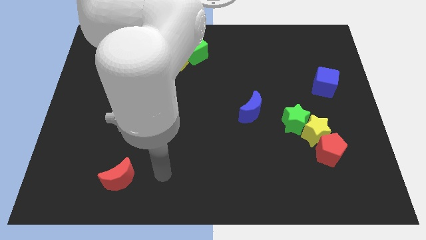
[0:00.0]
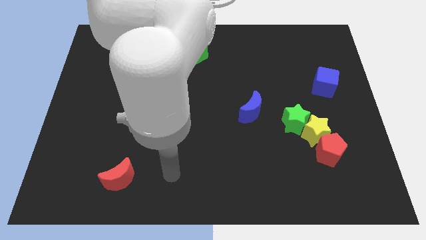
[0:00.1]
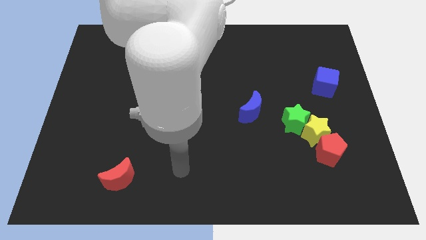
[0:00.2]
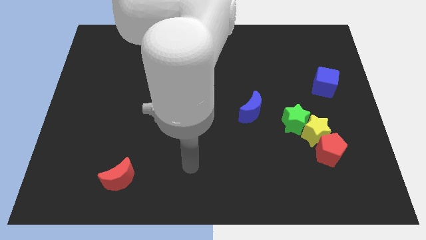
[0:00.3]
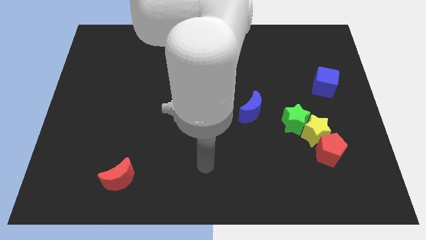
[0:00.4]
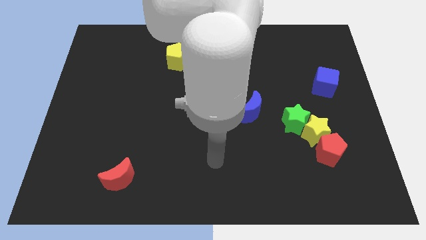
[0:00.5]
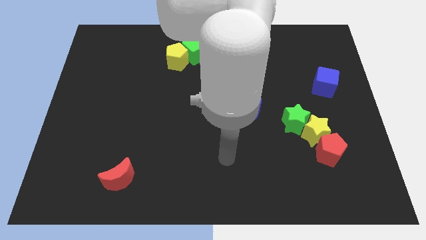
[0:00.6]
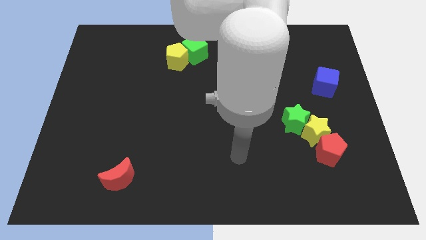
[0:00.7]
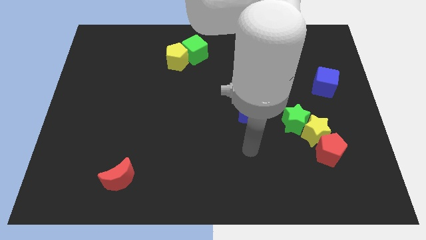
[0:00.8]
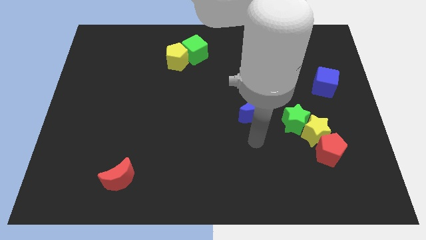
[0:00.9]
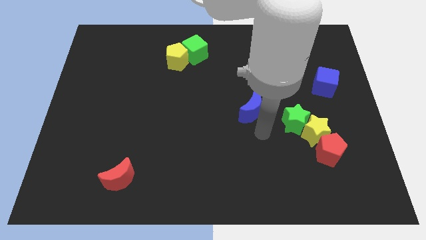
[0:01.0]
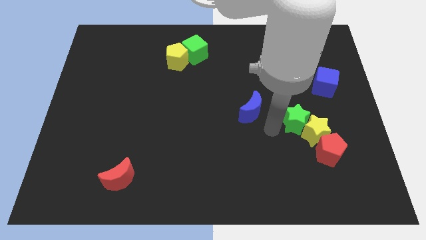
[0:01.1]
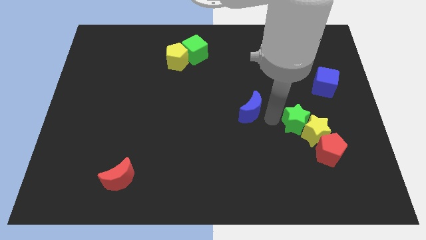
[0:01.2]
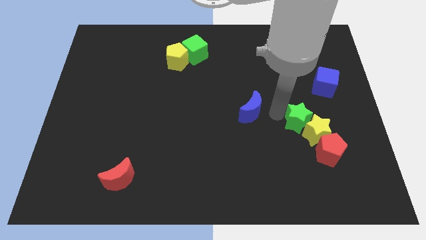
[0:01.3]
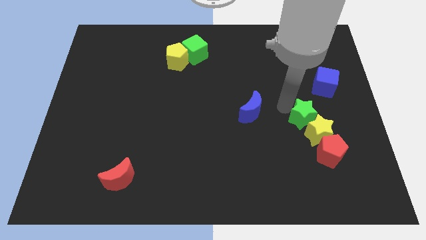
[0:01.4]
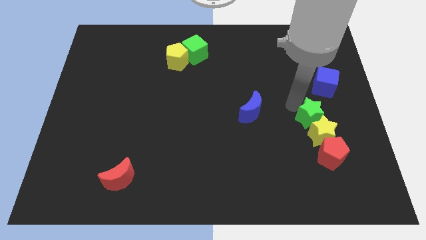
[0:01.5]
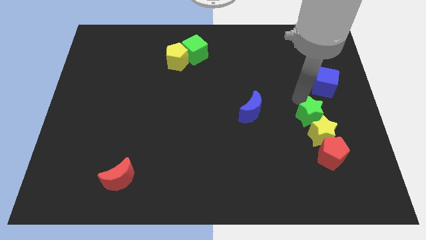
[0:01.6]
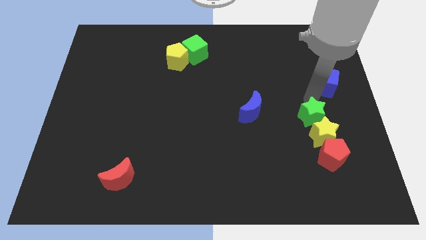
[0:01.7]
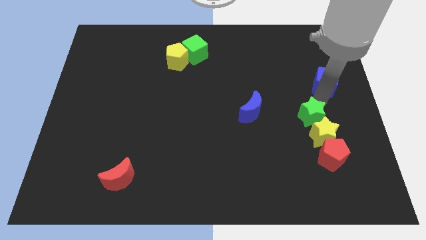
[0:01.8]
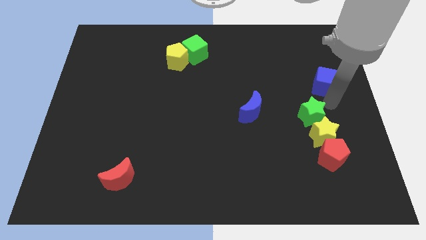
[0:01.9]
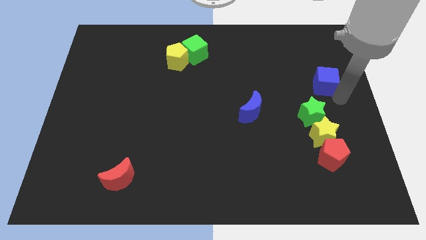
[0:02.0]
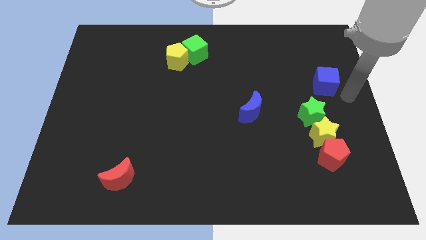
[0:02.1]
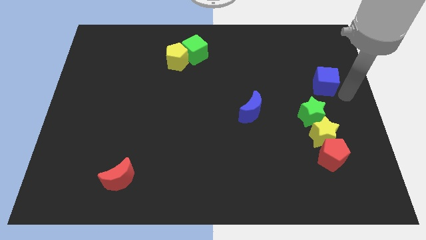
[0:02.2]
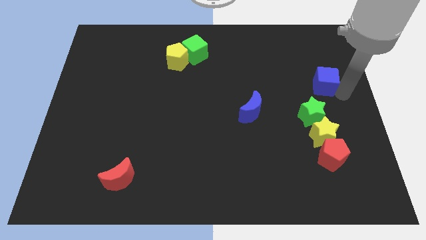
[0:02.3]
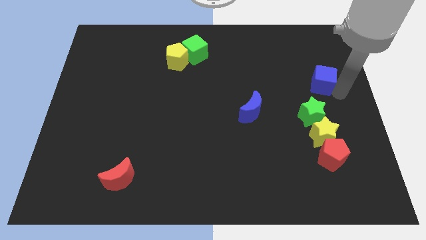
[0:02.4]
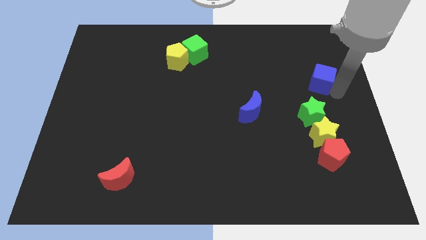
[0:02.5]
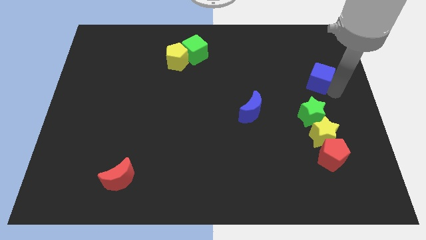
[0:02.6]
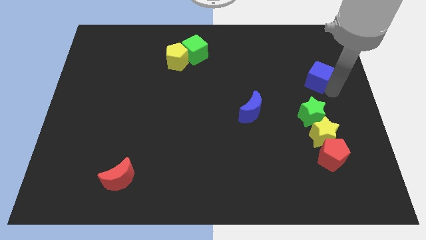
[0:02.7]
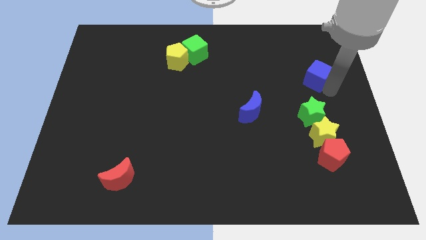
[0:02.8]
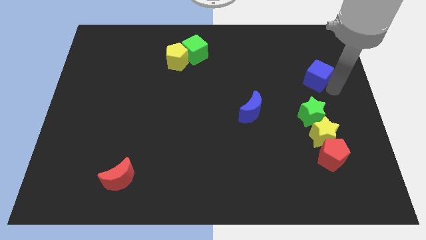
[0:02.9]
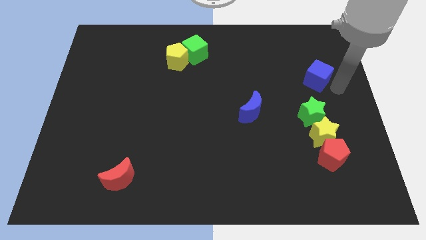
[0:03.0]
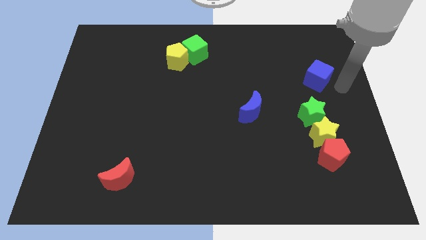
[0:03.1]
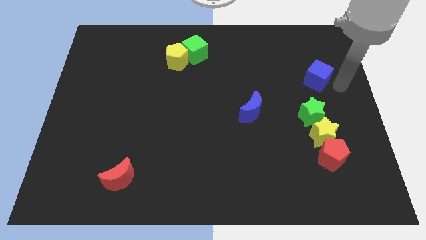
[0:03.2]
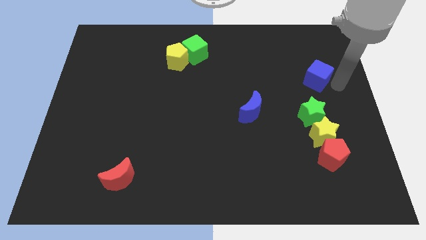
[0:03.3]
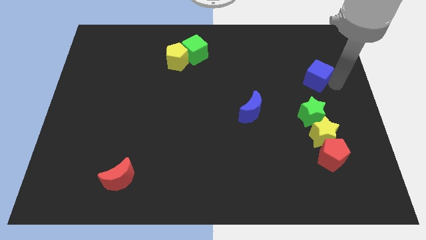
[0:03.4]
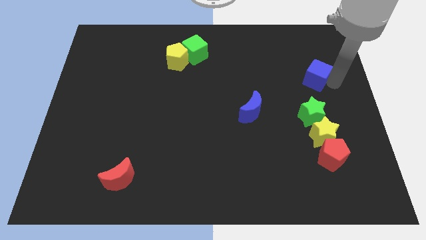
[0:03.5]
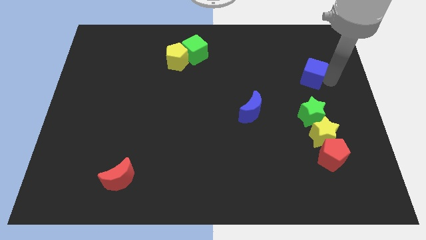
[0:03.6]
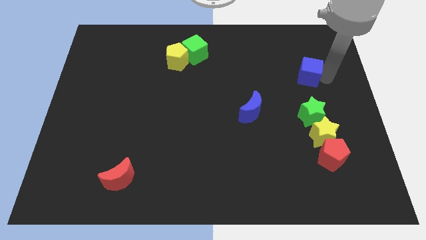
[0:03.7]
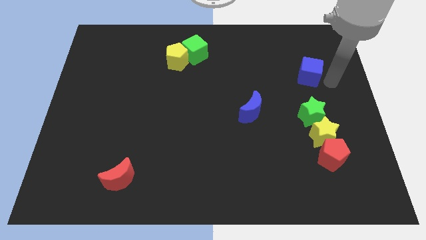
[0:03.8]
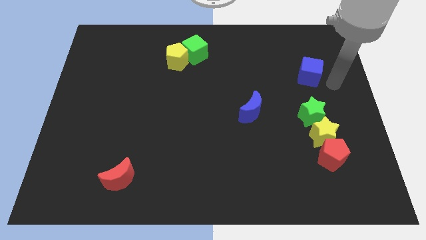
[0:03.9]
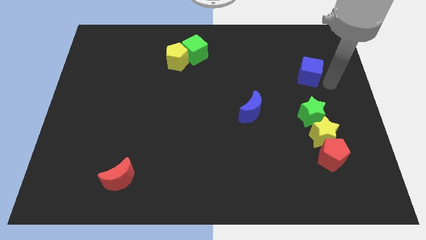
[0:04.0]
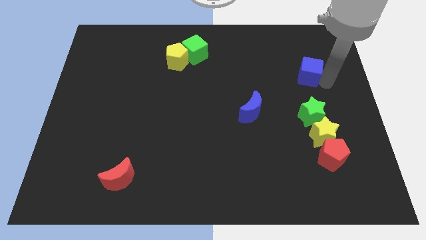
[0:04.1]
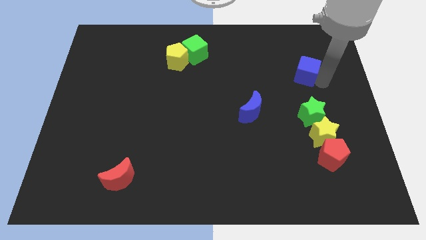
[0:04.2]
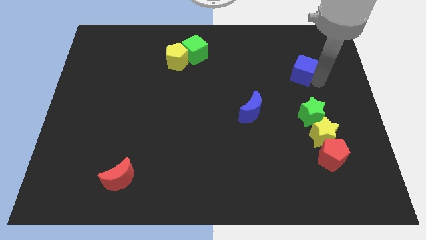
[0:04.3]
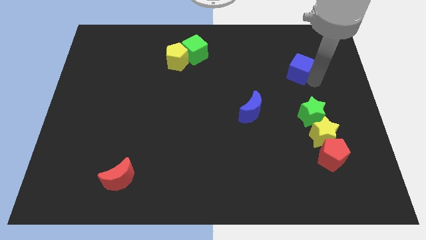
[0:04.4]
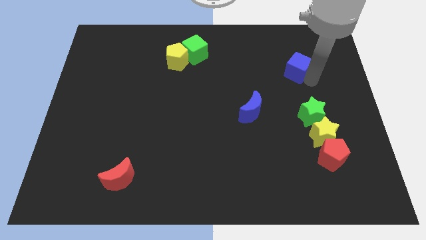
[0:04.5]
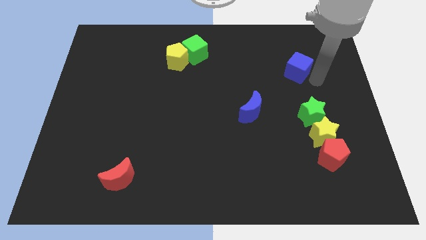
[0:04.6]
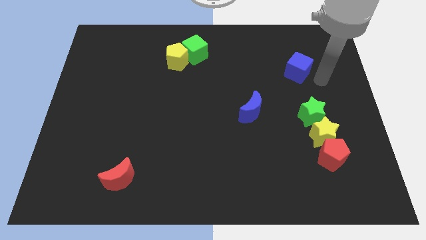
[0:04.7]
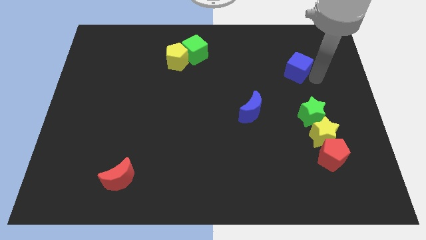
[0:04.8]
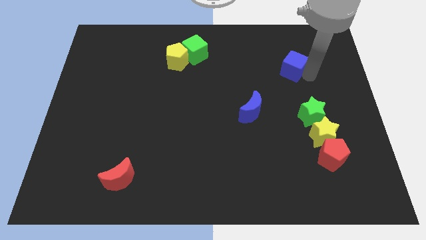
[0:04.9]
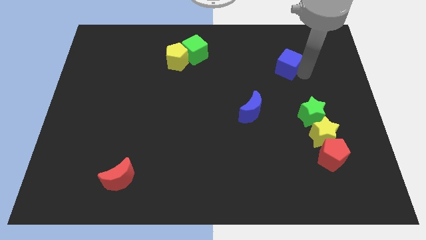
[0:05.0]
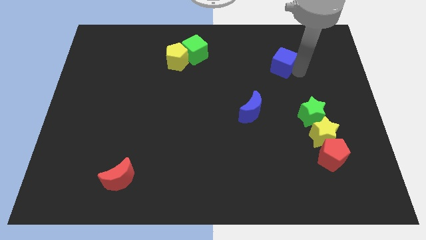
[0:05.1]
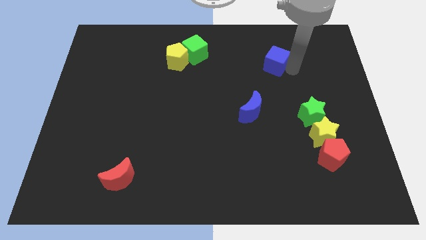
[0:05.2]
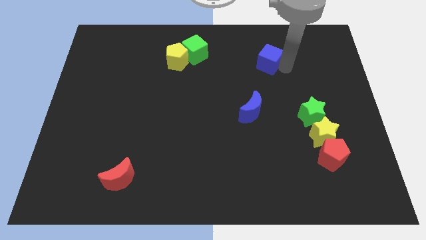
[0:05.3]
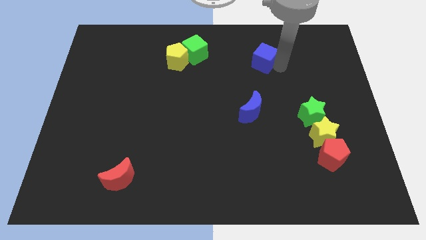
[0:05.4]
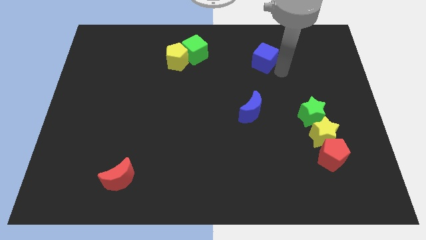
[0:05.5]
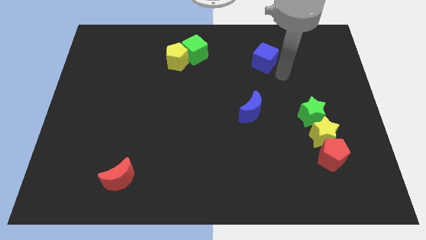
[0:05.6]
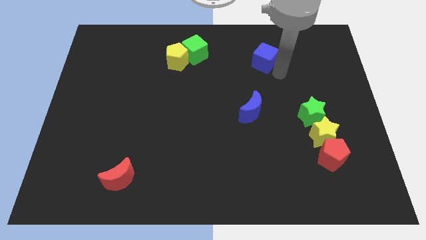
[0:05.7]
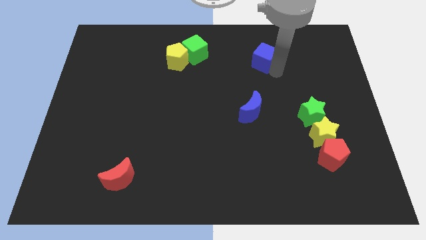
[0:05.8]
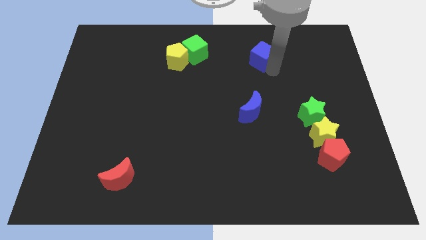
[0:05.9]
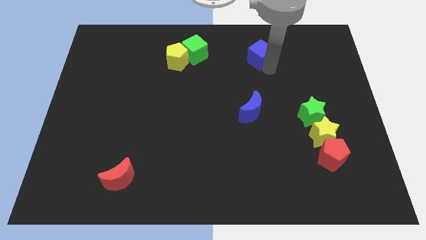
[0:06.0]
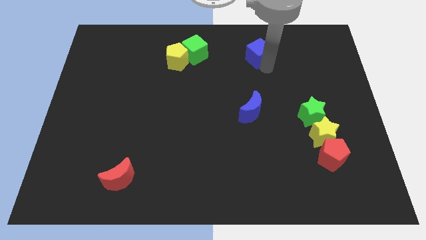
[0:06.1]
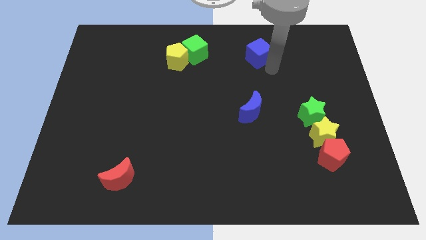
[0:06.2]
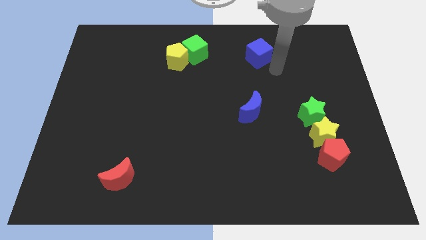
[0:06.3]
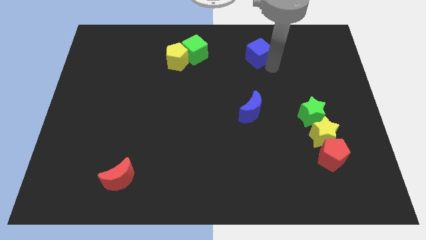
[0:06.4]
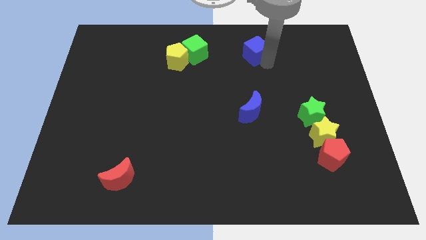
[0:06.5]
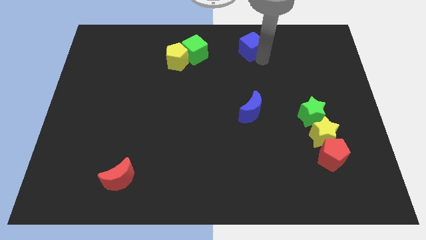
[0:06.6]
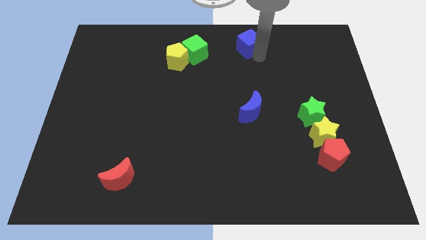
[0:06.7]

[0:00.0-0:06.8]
slide the blue cube to the towards your base

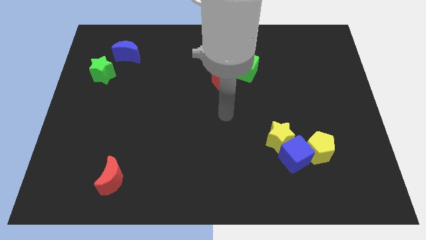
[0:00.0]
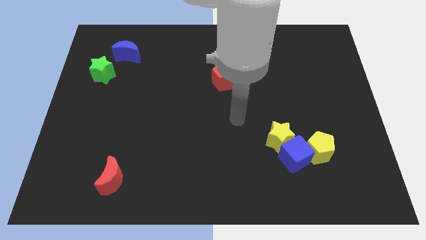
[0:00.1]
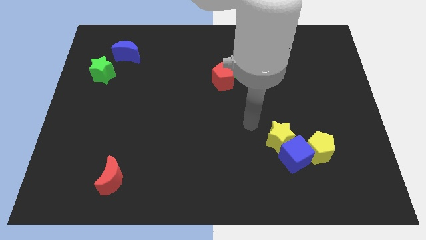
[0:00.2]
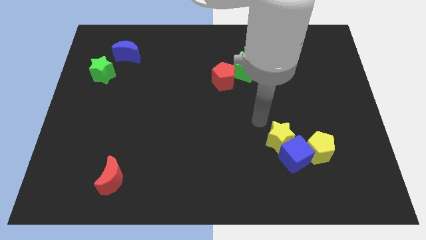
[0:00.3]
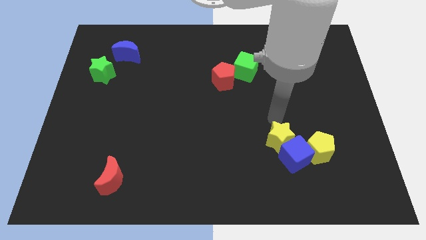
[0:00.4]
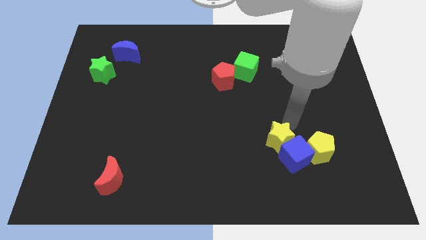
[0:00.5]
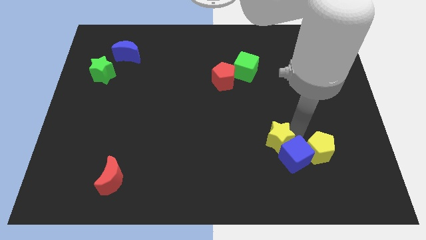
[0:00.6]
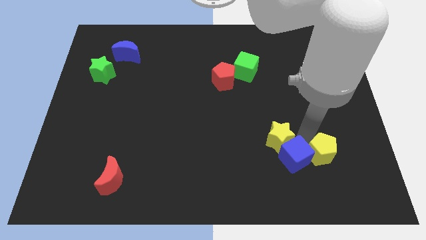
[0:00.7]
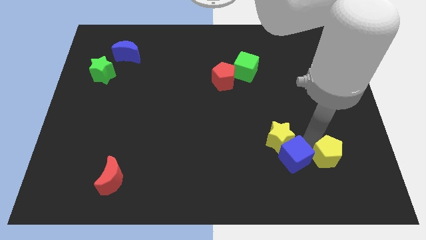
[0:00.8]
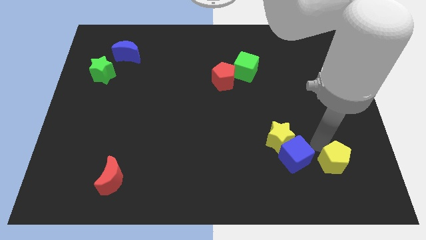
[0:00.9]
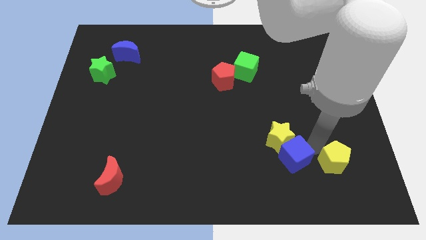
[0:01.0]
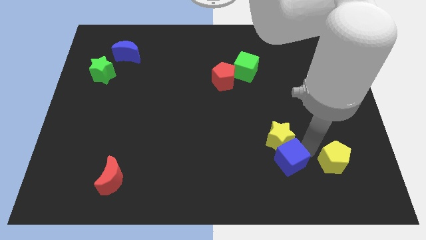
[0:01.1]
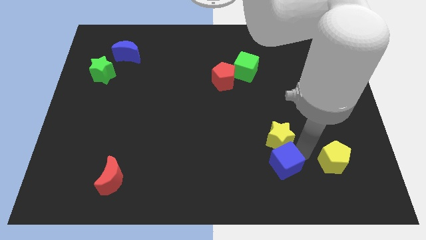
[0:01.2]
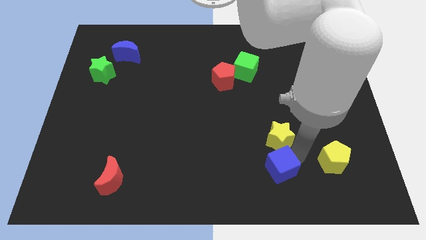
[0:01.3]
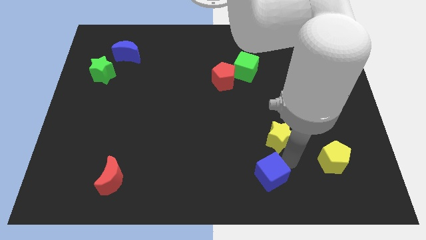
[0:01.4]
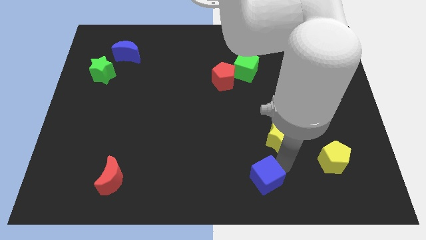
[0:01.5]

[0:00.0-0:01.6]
put the blue cube to the bottom side
